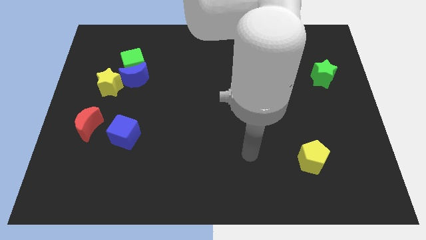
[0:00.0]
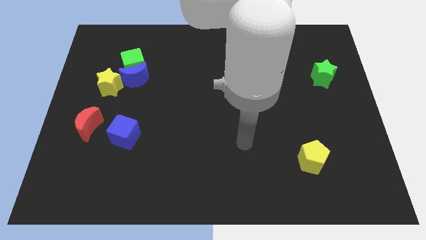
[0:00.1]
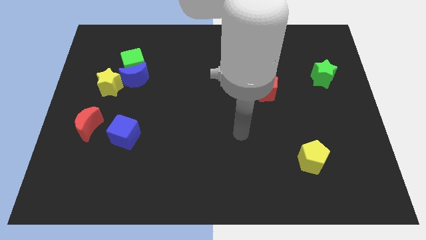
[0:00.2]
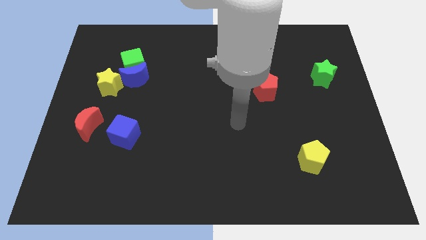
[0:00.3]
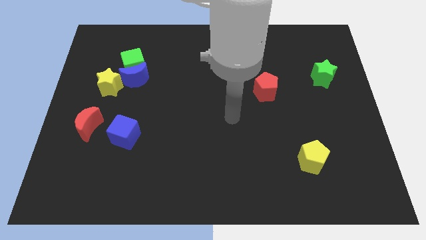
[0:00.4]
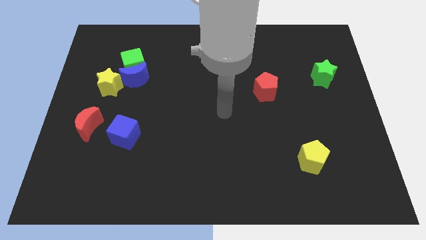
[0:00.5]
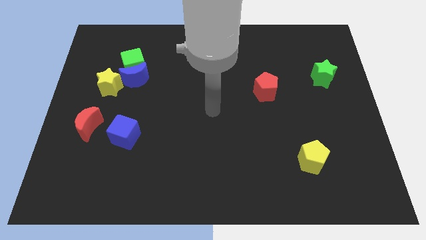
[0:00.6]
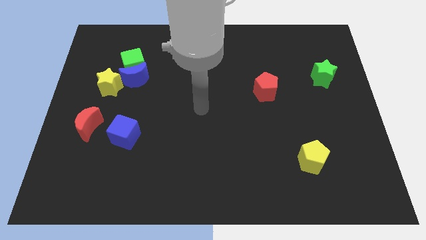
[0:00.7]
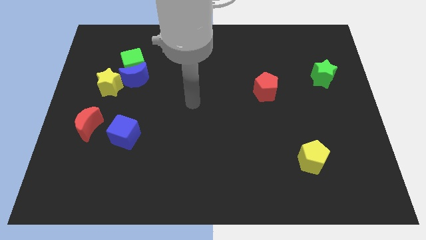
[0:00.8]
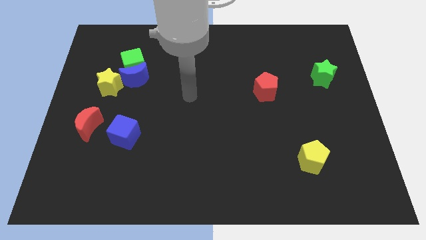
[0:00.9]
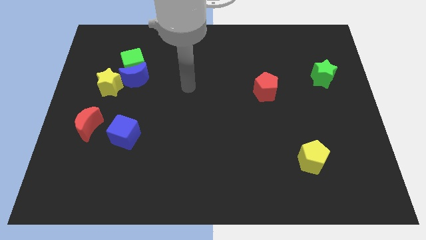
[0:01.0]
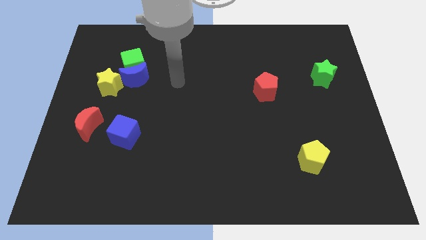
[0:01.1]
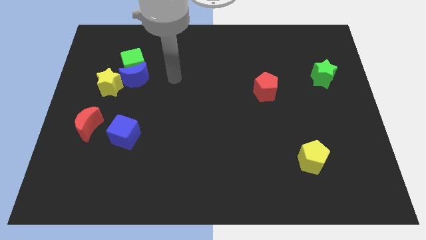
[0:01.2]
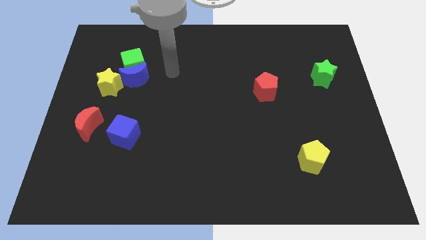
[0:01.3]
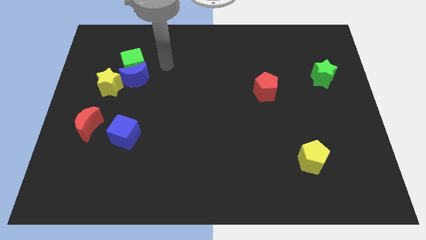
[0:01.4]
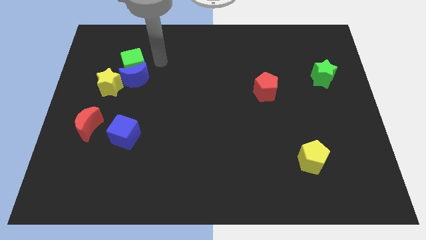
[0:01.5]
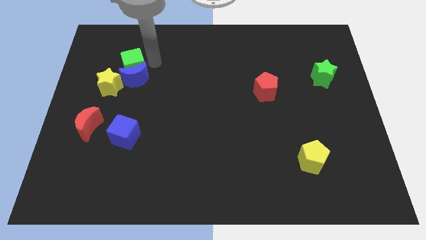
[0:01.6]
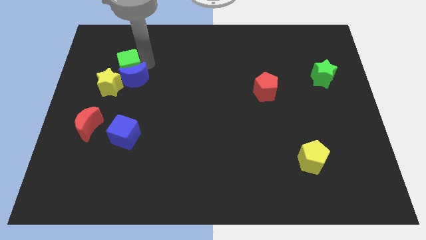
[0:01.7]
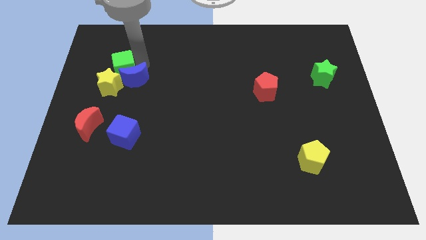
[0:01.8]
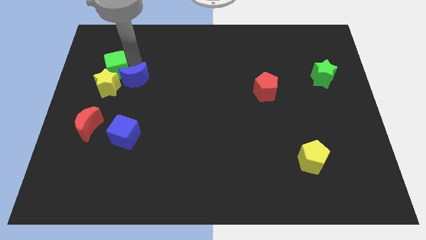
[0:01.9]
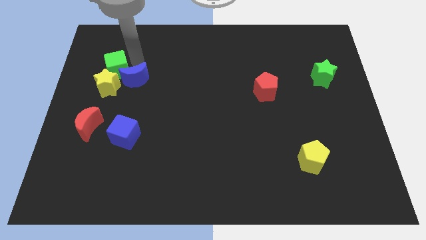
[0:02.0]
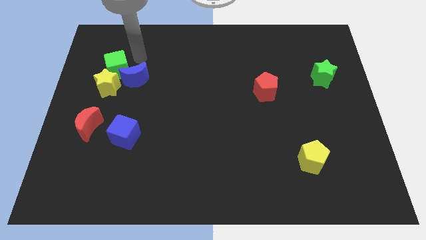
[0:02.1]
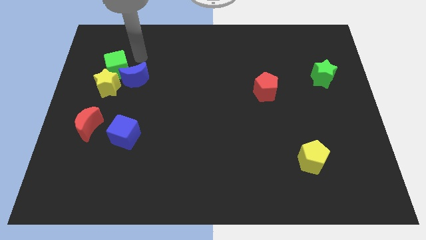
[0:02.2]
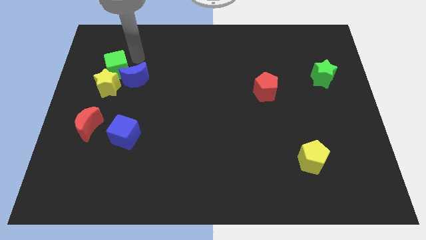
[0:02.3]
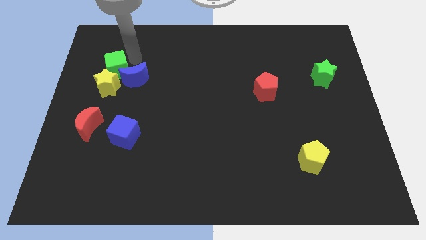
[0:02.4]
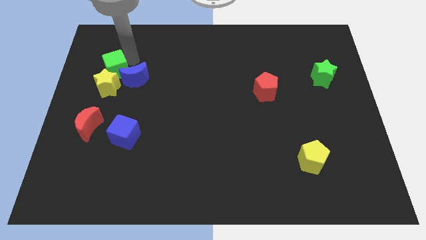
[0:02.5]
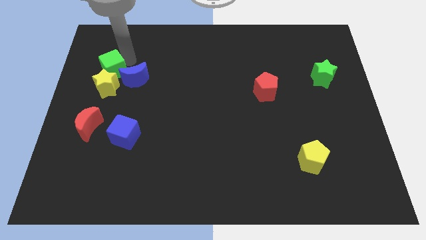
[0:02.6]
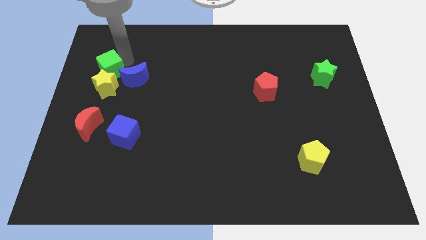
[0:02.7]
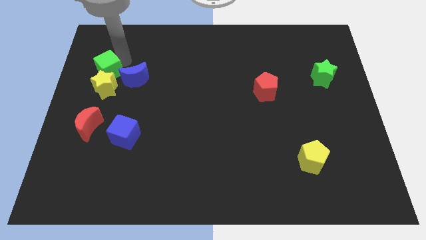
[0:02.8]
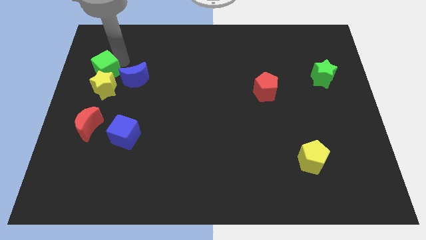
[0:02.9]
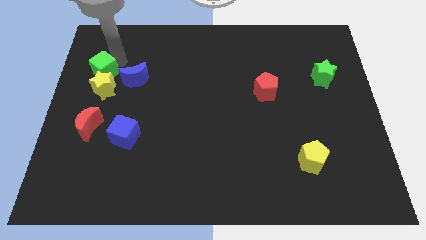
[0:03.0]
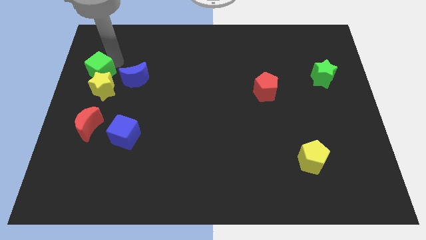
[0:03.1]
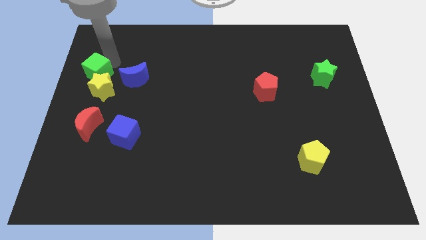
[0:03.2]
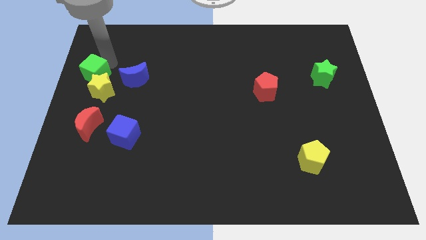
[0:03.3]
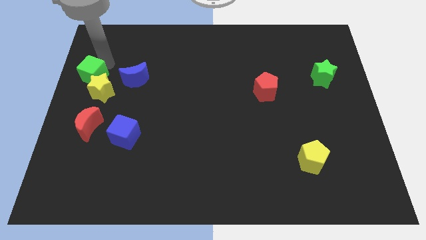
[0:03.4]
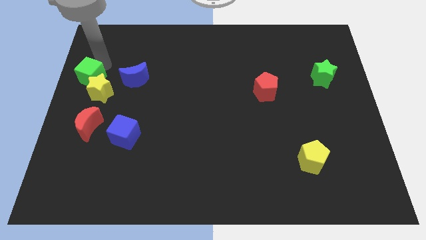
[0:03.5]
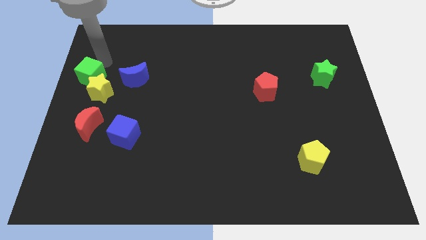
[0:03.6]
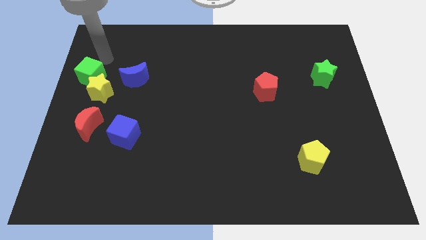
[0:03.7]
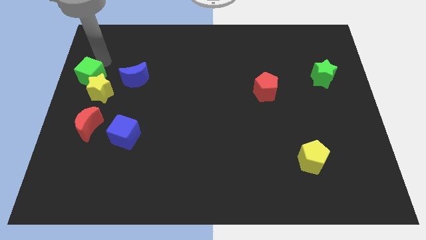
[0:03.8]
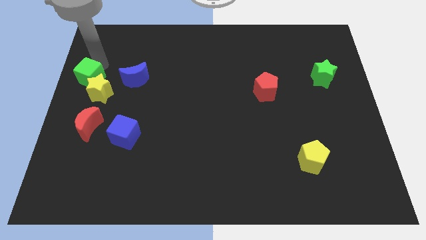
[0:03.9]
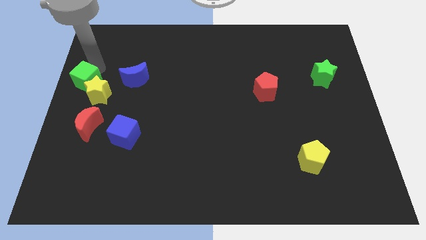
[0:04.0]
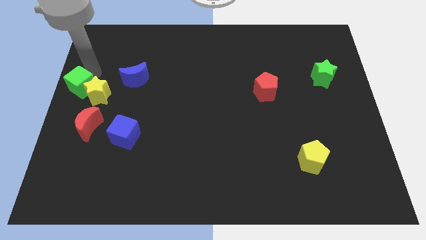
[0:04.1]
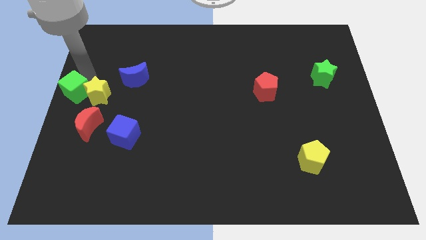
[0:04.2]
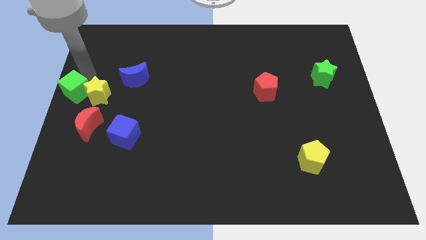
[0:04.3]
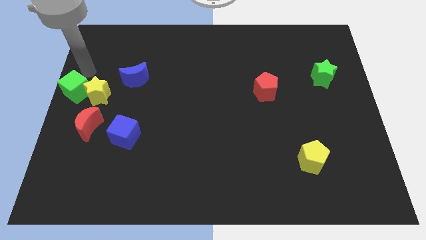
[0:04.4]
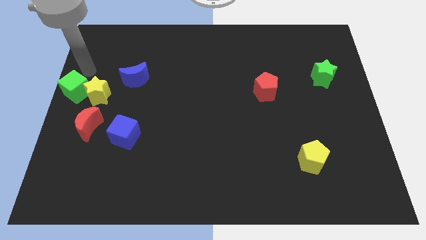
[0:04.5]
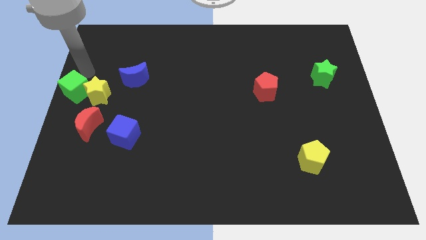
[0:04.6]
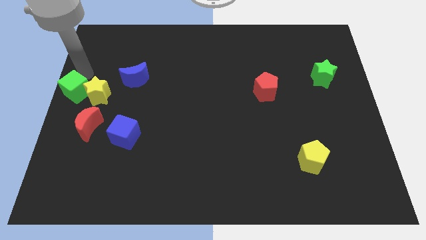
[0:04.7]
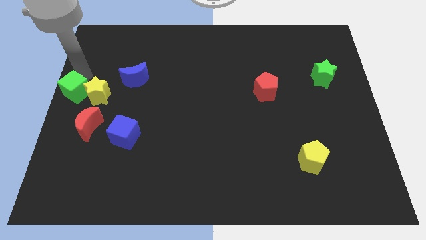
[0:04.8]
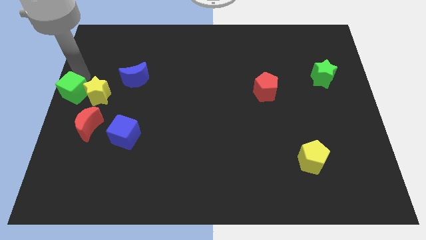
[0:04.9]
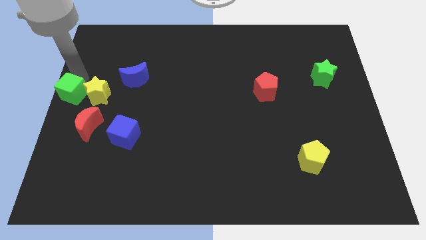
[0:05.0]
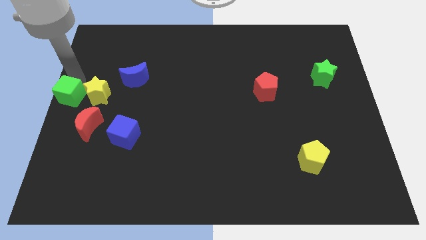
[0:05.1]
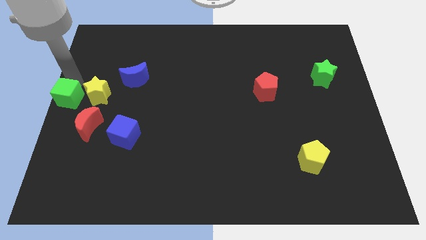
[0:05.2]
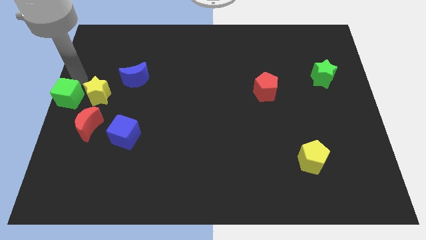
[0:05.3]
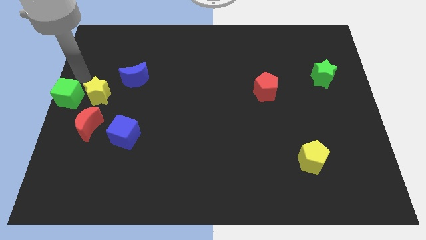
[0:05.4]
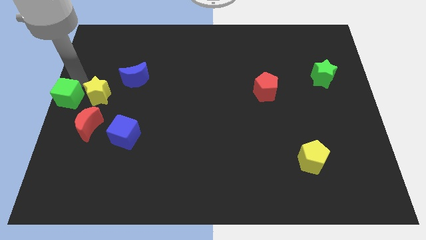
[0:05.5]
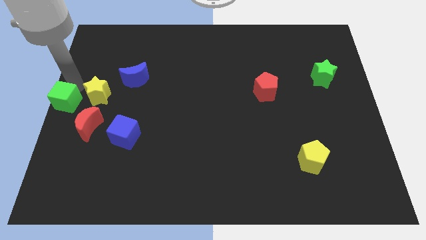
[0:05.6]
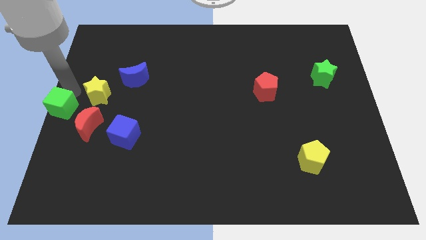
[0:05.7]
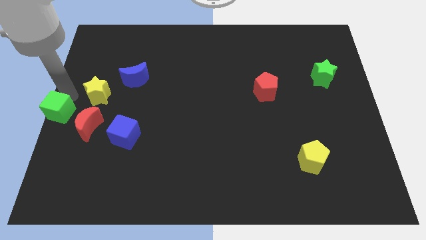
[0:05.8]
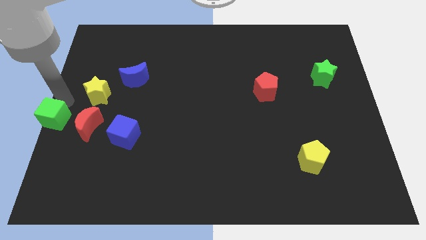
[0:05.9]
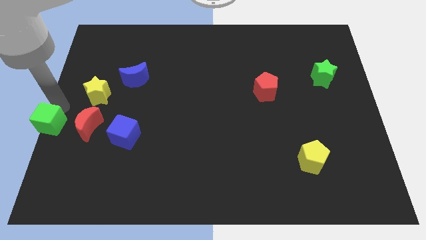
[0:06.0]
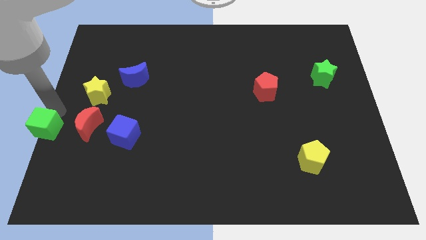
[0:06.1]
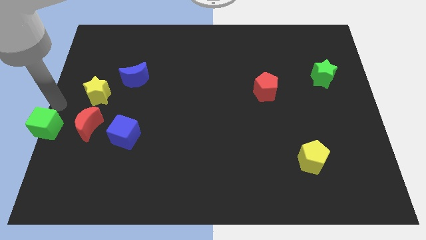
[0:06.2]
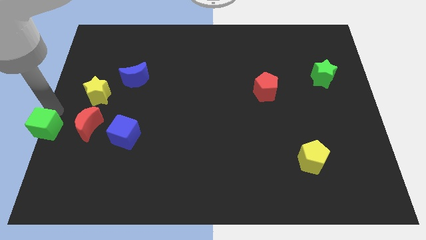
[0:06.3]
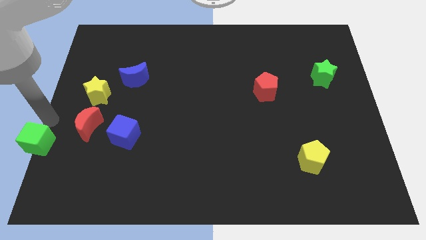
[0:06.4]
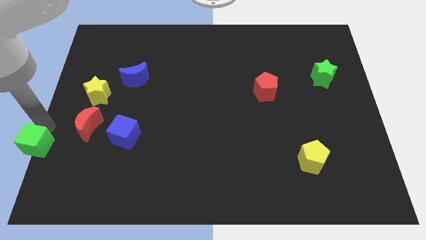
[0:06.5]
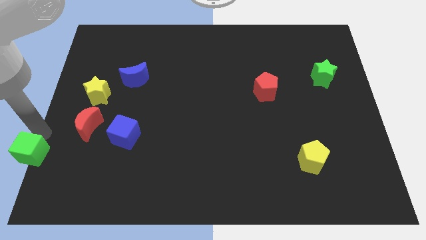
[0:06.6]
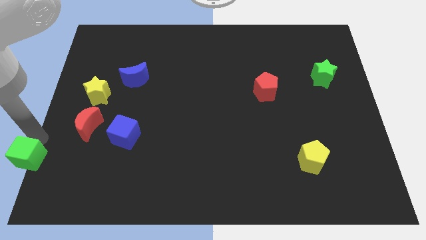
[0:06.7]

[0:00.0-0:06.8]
push the green cube to the bottom left of the board
